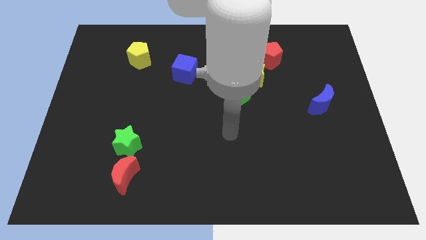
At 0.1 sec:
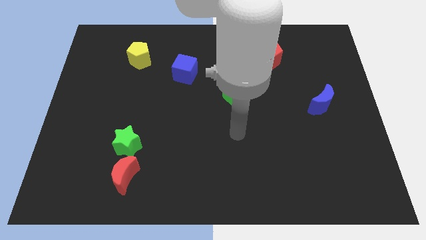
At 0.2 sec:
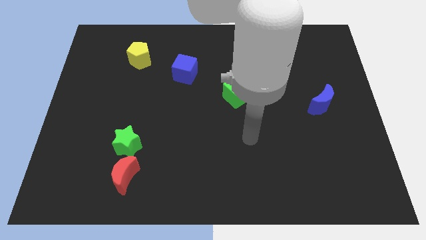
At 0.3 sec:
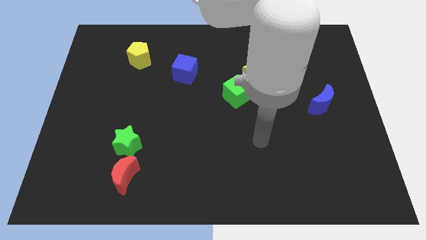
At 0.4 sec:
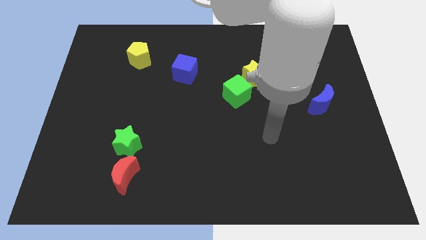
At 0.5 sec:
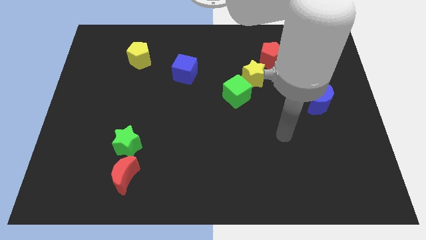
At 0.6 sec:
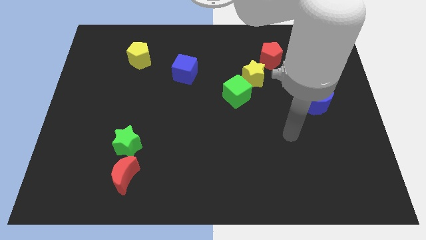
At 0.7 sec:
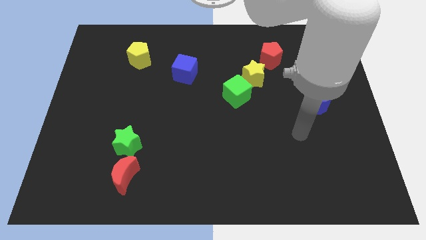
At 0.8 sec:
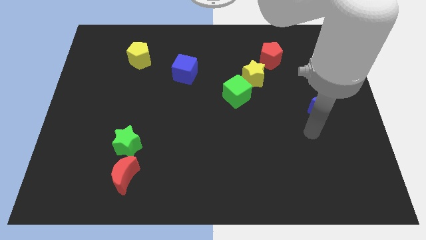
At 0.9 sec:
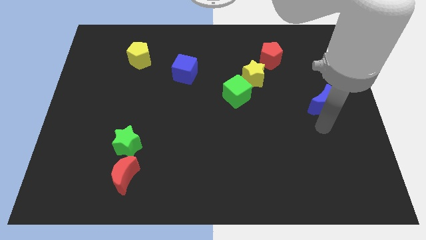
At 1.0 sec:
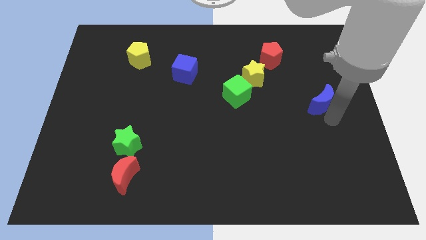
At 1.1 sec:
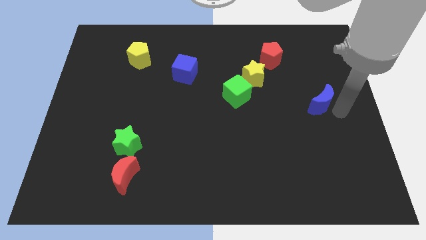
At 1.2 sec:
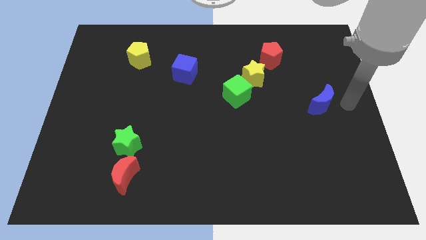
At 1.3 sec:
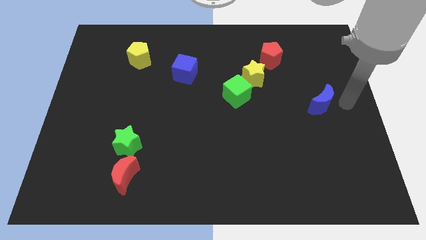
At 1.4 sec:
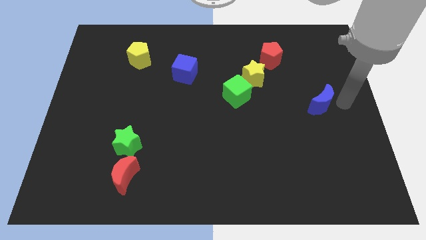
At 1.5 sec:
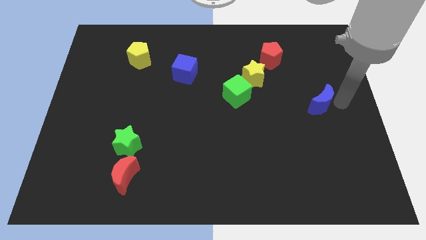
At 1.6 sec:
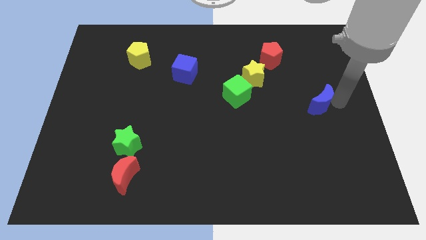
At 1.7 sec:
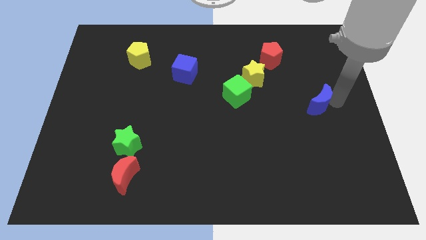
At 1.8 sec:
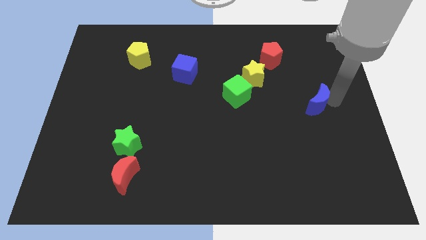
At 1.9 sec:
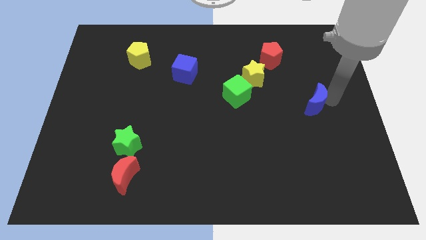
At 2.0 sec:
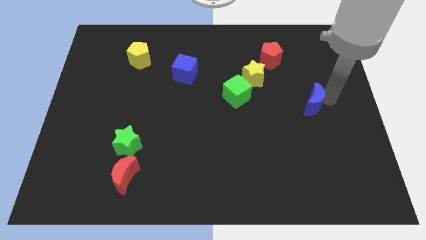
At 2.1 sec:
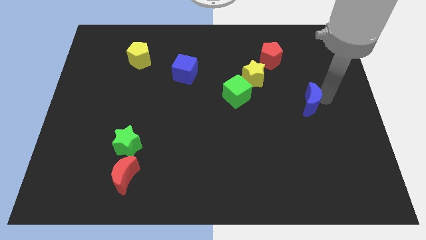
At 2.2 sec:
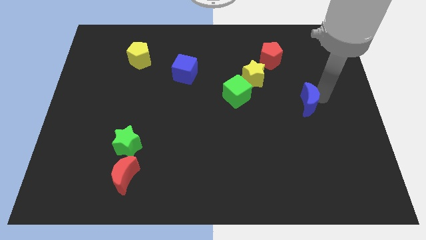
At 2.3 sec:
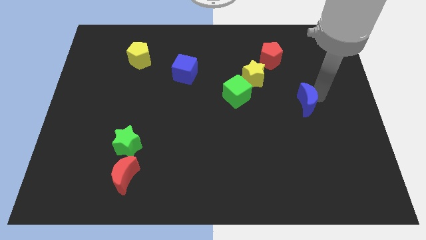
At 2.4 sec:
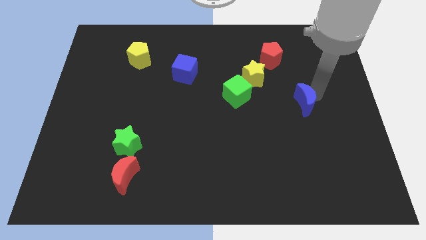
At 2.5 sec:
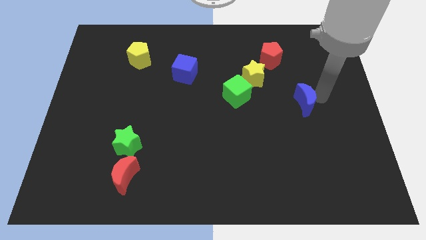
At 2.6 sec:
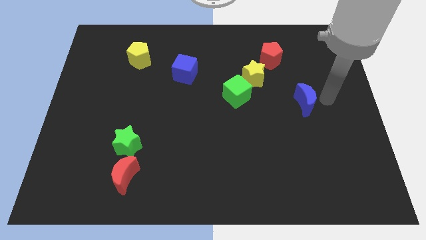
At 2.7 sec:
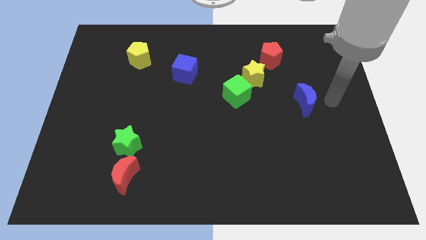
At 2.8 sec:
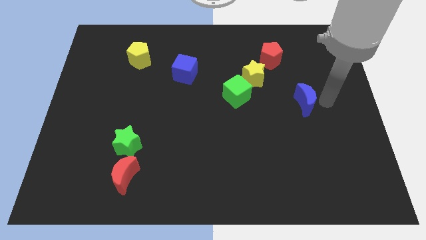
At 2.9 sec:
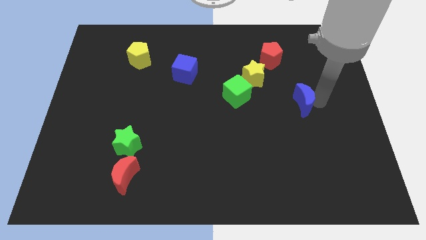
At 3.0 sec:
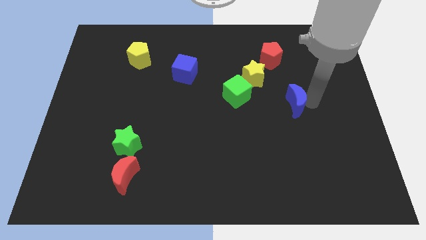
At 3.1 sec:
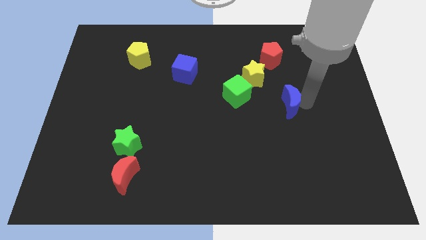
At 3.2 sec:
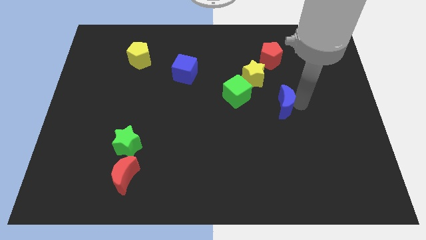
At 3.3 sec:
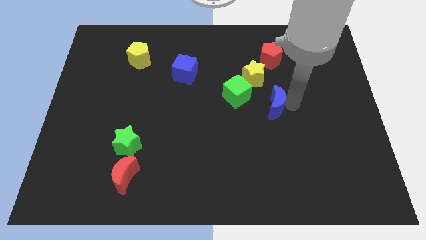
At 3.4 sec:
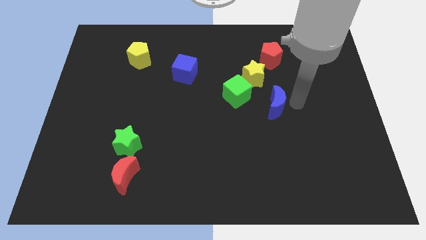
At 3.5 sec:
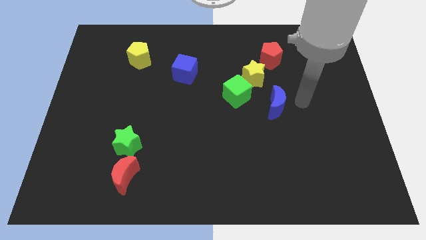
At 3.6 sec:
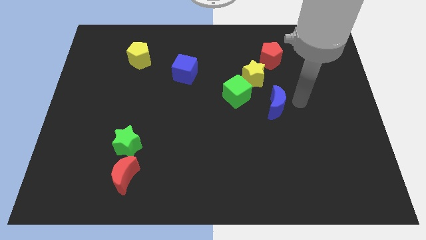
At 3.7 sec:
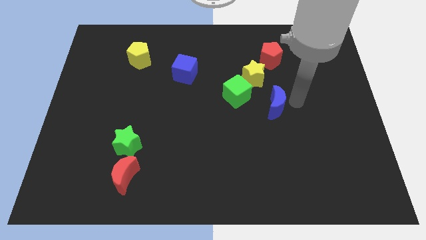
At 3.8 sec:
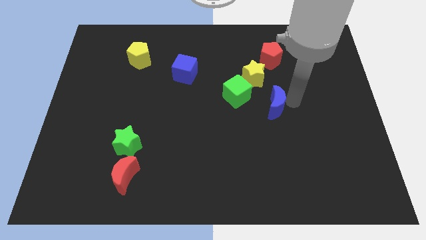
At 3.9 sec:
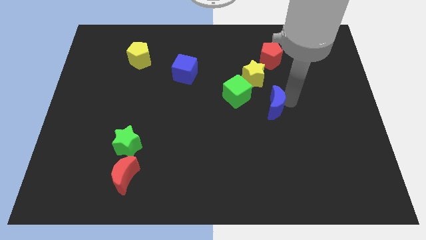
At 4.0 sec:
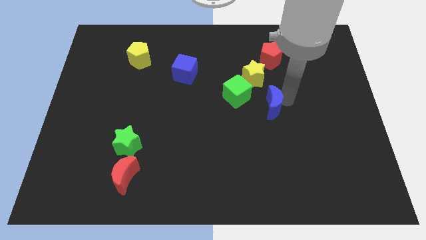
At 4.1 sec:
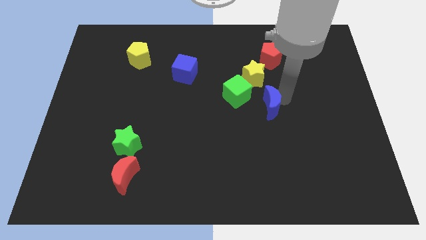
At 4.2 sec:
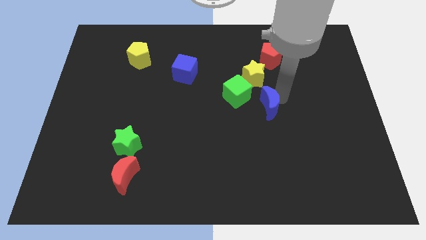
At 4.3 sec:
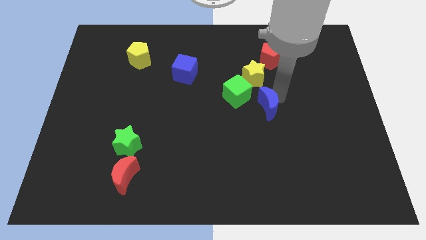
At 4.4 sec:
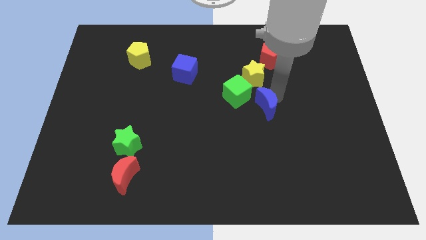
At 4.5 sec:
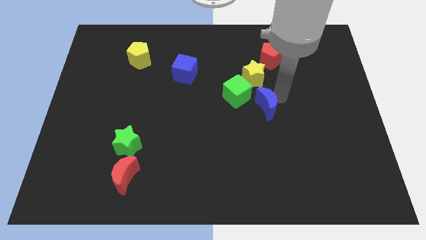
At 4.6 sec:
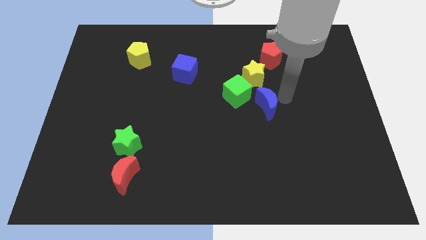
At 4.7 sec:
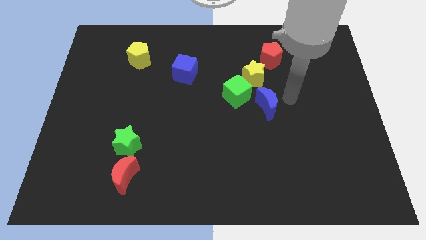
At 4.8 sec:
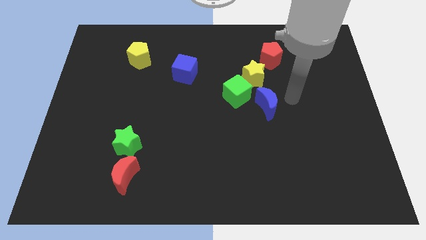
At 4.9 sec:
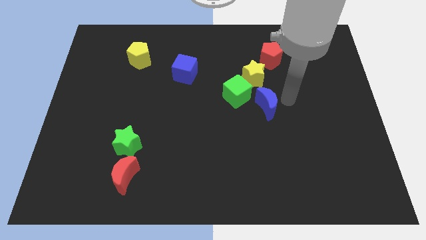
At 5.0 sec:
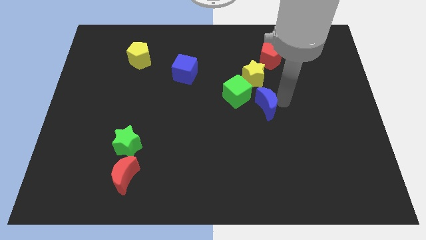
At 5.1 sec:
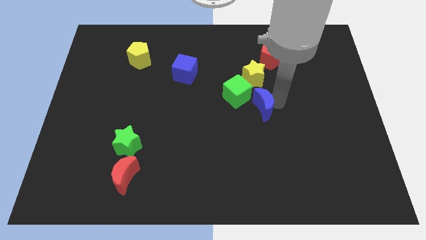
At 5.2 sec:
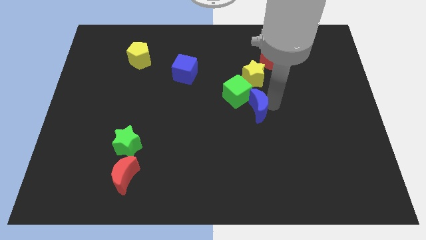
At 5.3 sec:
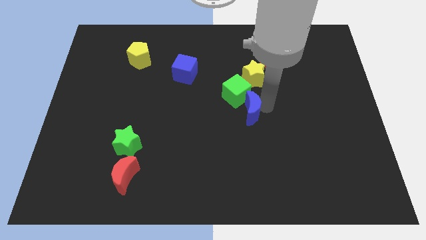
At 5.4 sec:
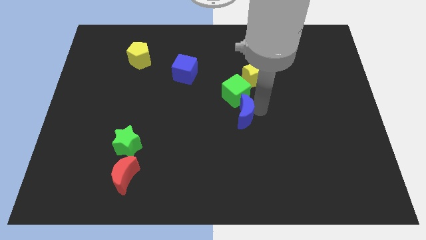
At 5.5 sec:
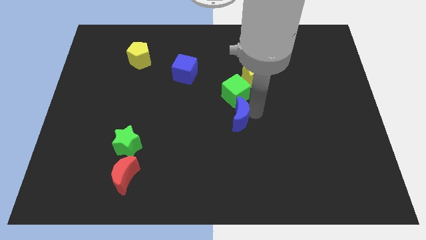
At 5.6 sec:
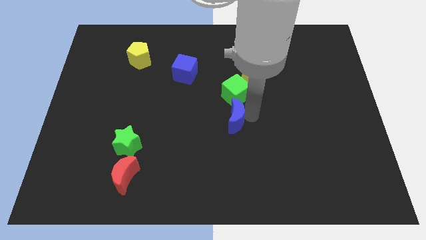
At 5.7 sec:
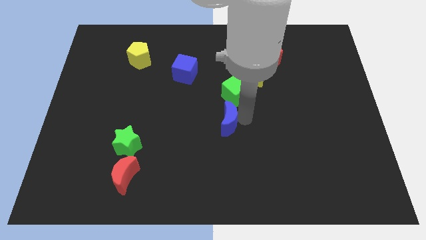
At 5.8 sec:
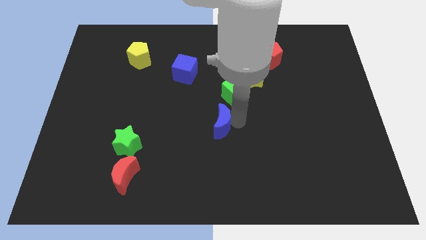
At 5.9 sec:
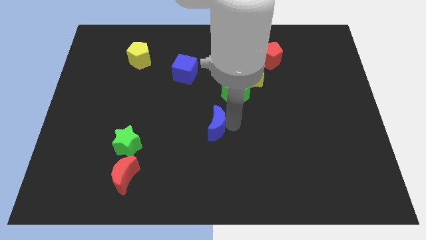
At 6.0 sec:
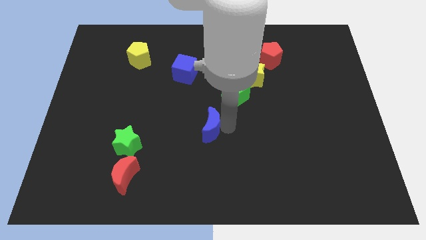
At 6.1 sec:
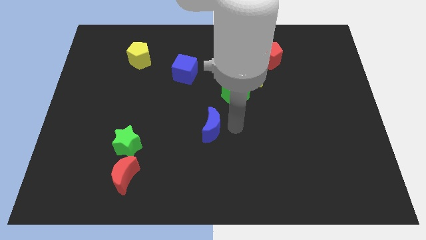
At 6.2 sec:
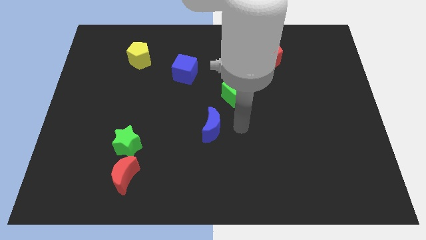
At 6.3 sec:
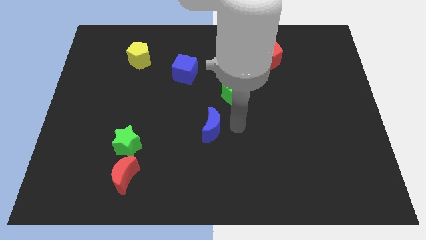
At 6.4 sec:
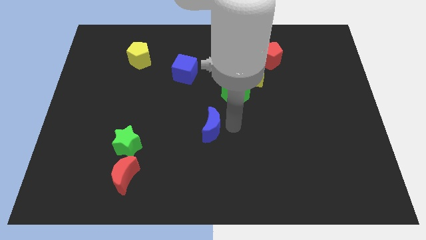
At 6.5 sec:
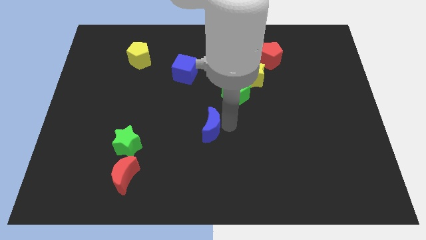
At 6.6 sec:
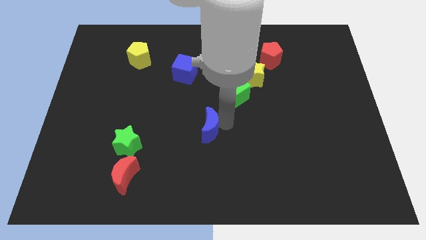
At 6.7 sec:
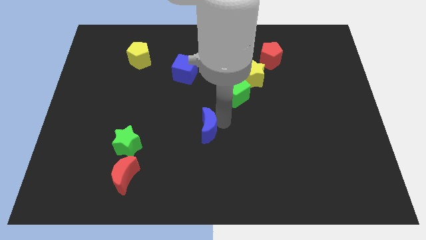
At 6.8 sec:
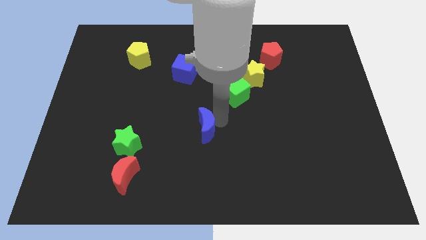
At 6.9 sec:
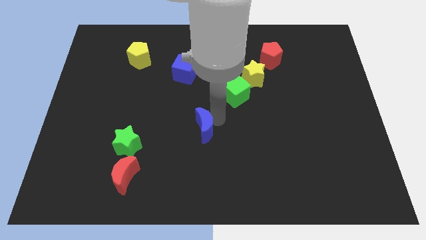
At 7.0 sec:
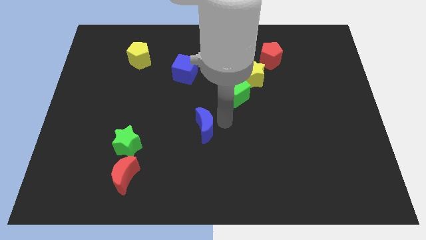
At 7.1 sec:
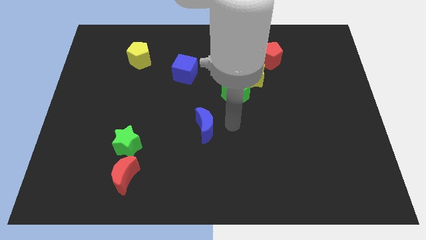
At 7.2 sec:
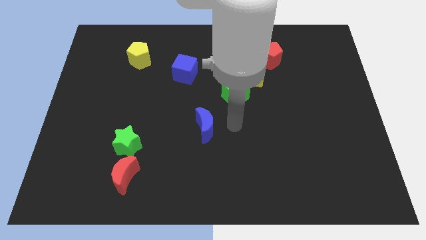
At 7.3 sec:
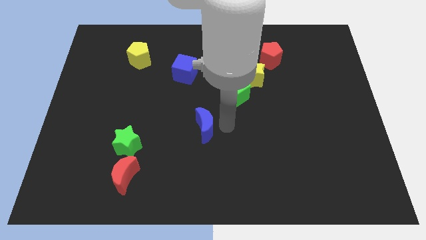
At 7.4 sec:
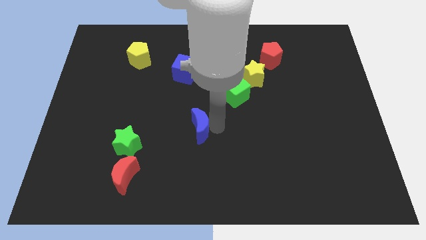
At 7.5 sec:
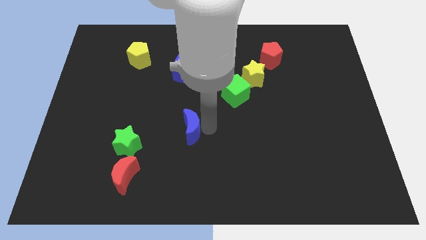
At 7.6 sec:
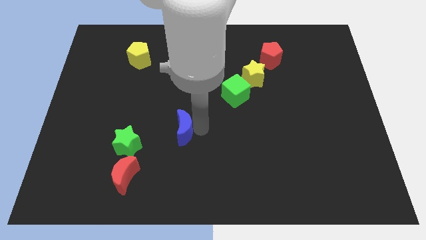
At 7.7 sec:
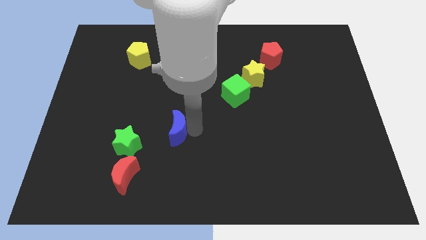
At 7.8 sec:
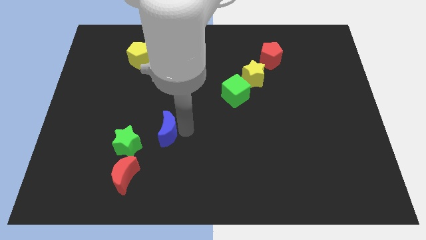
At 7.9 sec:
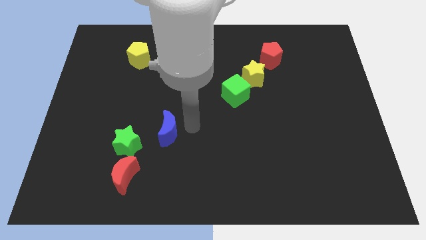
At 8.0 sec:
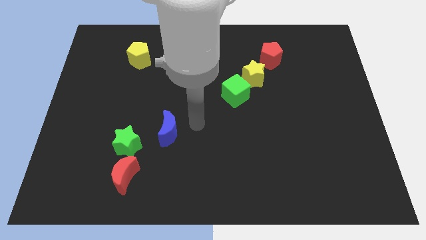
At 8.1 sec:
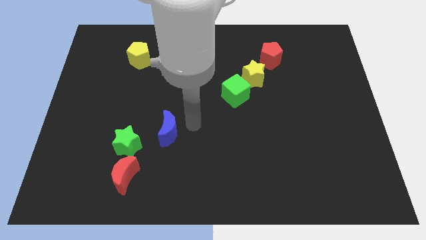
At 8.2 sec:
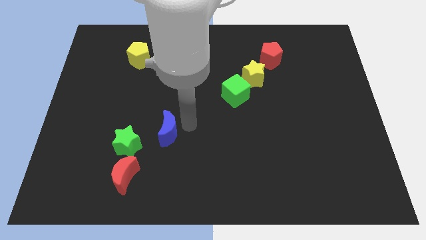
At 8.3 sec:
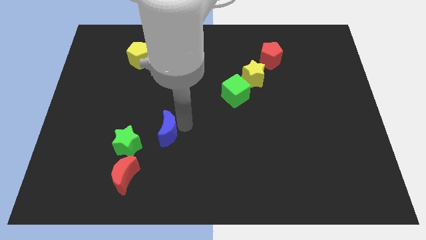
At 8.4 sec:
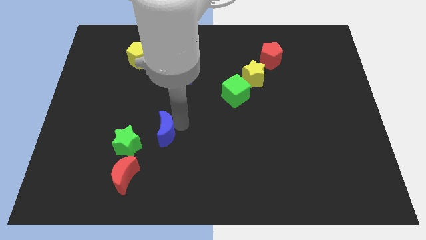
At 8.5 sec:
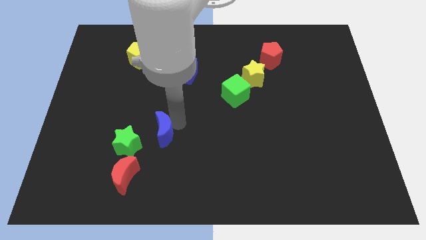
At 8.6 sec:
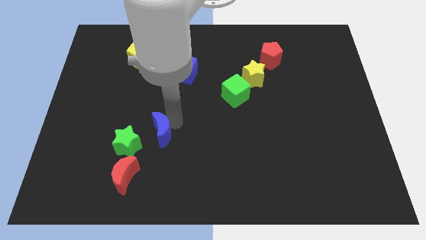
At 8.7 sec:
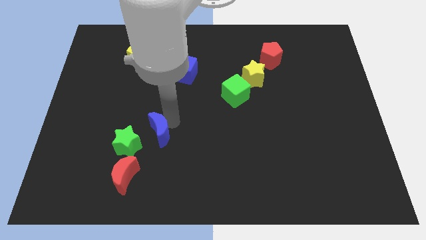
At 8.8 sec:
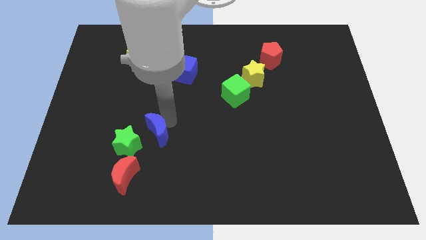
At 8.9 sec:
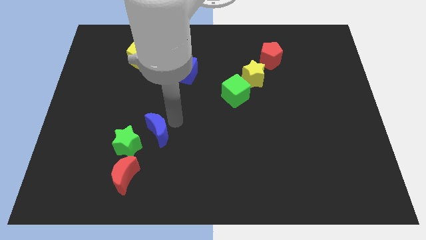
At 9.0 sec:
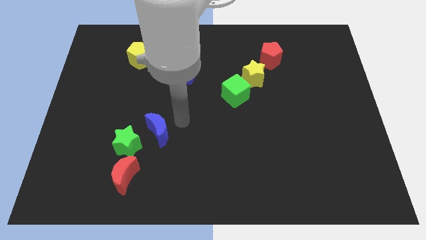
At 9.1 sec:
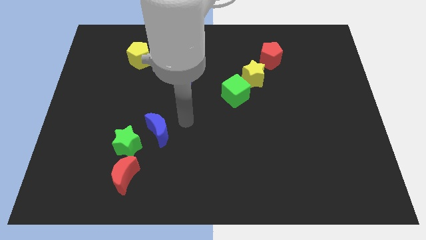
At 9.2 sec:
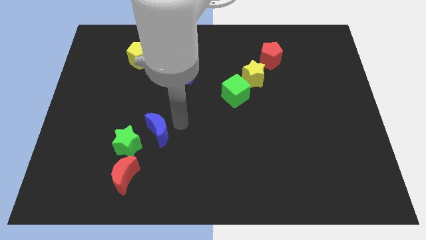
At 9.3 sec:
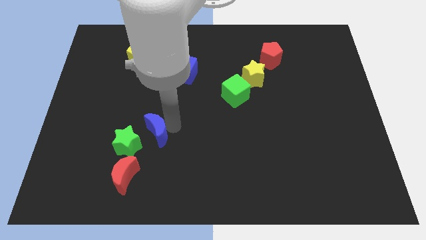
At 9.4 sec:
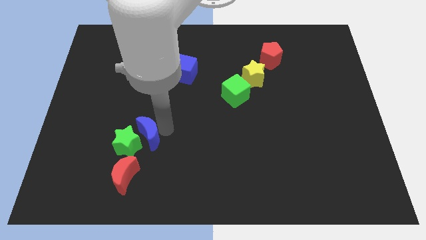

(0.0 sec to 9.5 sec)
push the blue moon towards the green star
